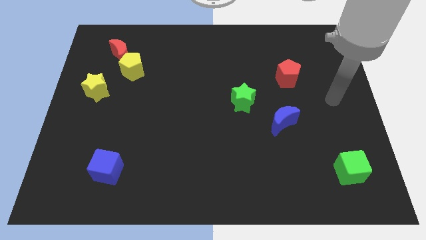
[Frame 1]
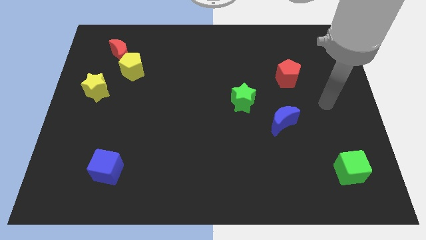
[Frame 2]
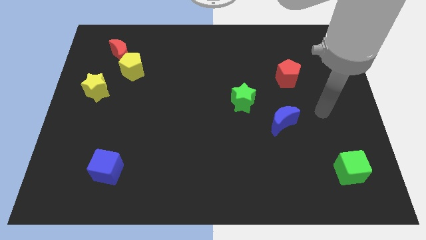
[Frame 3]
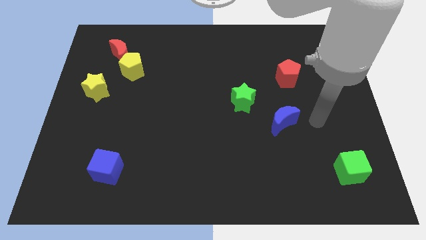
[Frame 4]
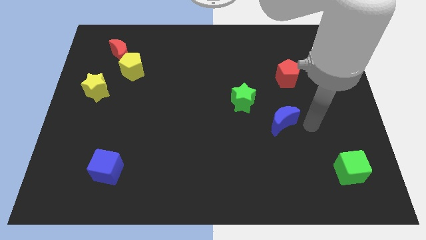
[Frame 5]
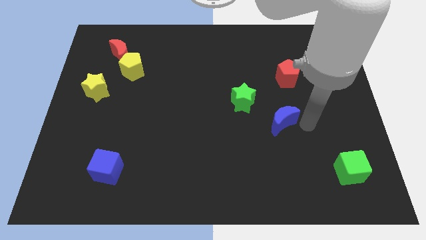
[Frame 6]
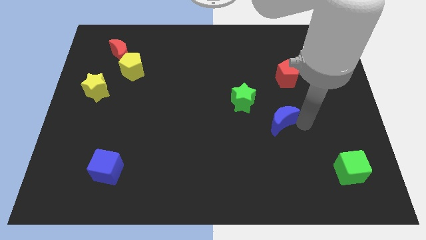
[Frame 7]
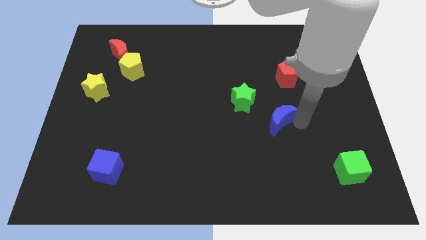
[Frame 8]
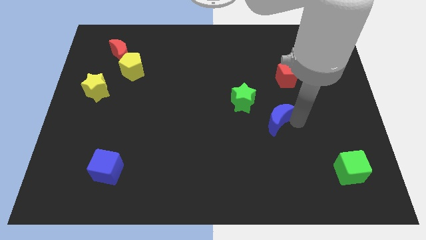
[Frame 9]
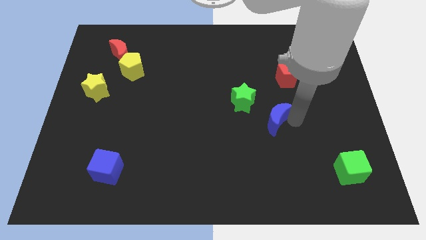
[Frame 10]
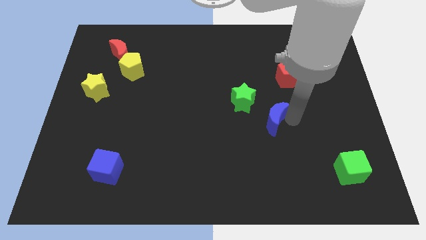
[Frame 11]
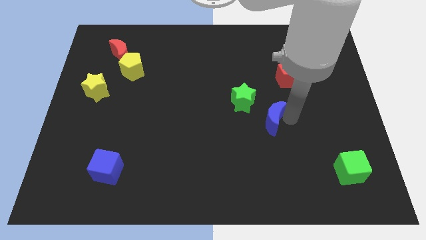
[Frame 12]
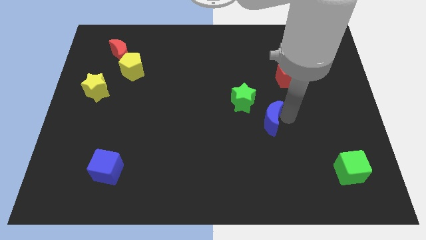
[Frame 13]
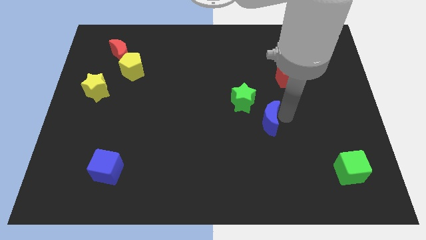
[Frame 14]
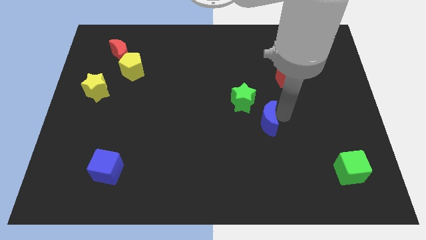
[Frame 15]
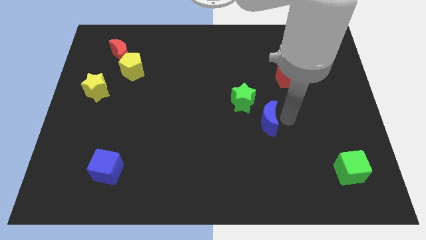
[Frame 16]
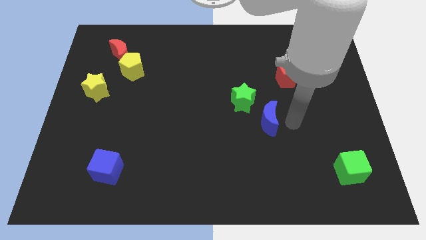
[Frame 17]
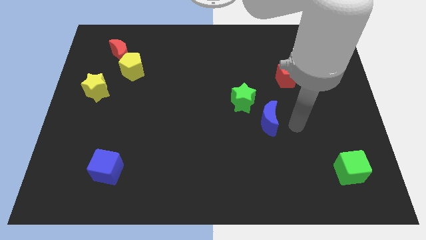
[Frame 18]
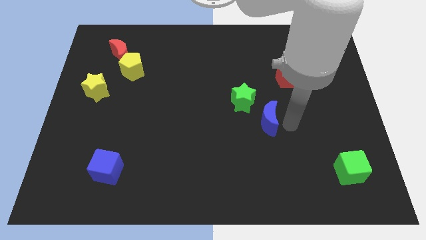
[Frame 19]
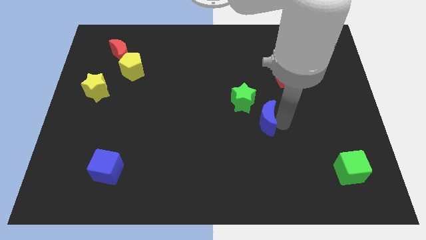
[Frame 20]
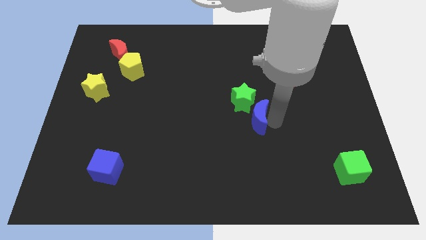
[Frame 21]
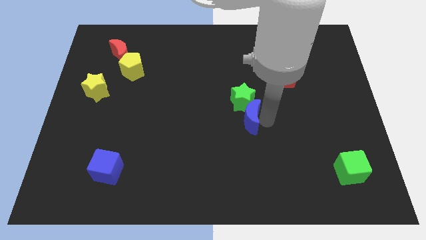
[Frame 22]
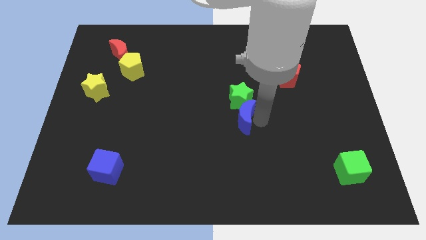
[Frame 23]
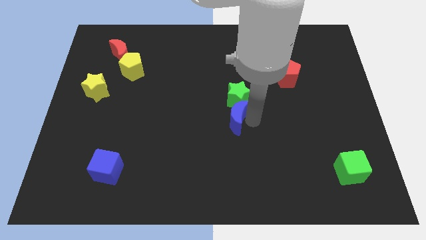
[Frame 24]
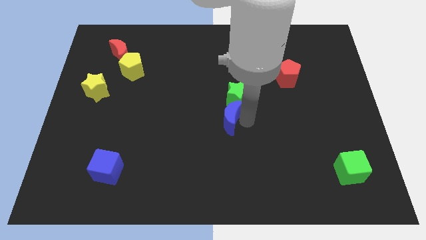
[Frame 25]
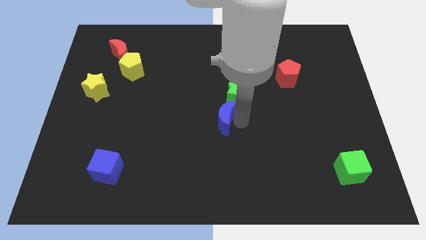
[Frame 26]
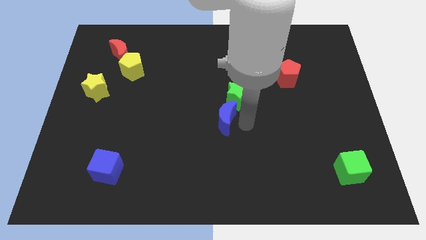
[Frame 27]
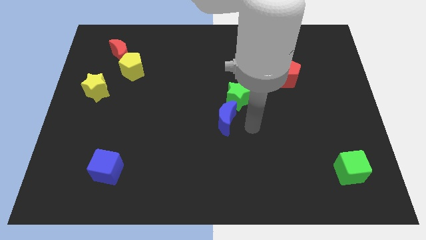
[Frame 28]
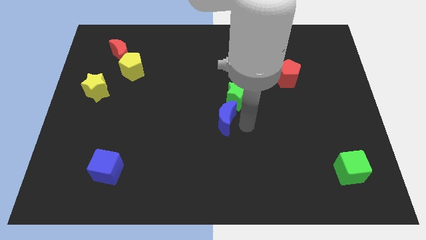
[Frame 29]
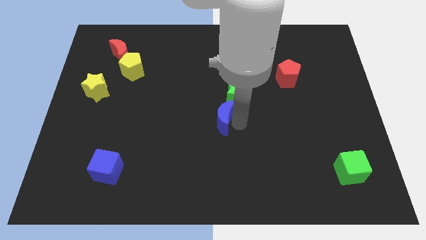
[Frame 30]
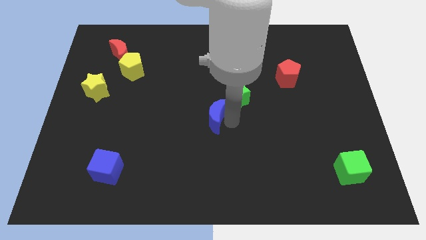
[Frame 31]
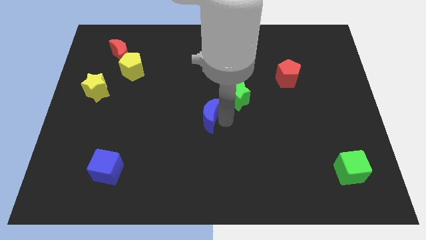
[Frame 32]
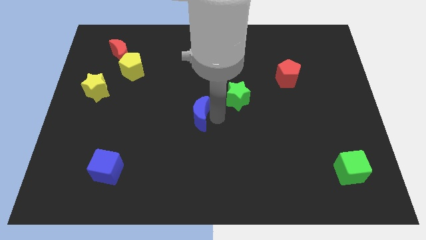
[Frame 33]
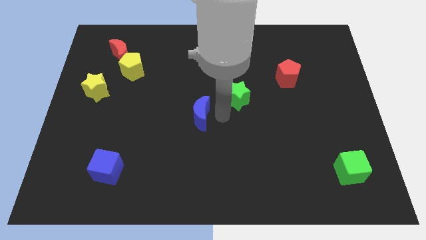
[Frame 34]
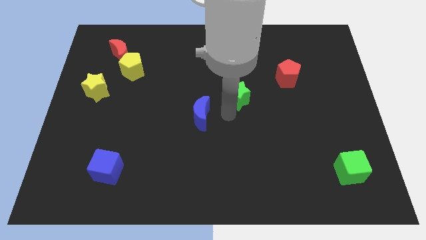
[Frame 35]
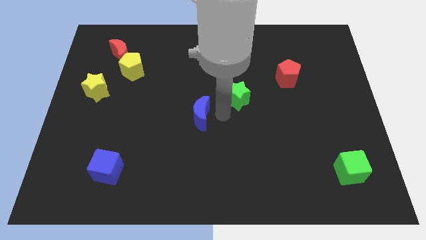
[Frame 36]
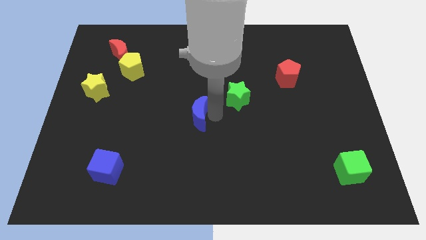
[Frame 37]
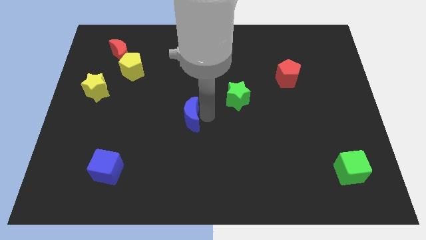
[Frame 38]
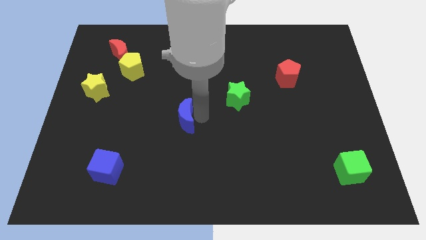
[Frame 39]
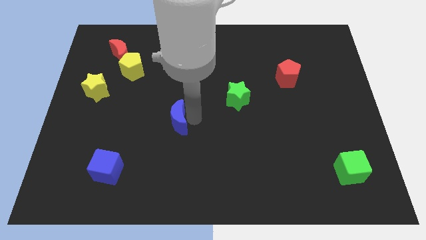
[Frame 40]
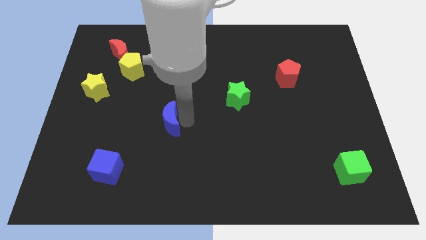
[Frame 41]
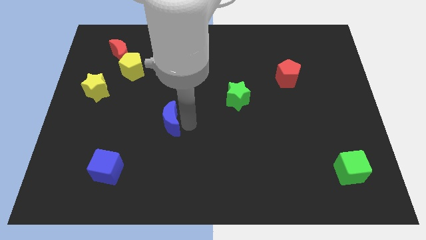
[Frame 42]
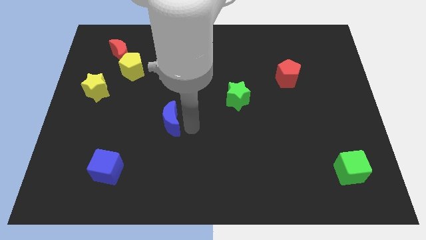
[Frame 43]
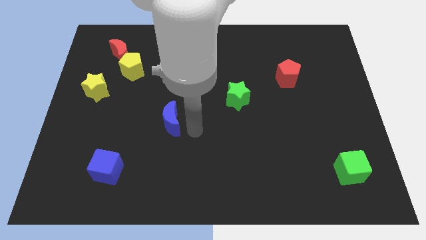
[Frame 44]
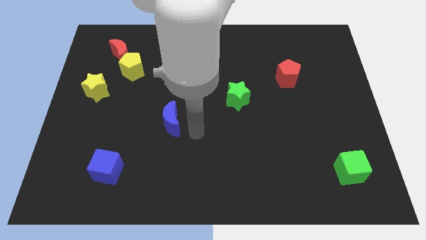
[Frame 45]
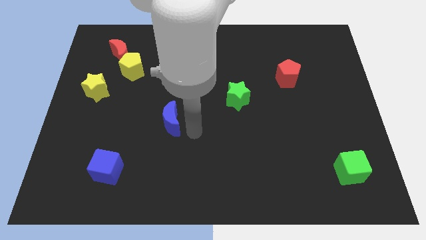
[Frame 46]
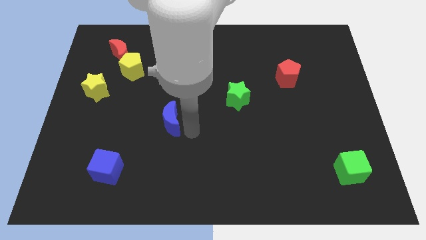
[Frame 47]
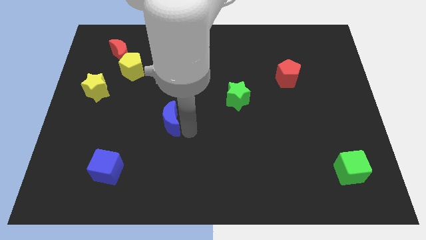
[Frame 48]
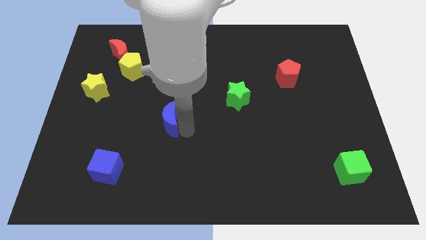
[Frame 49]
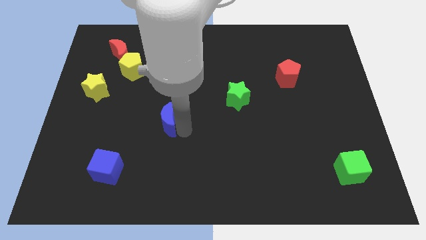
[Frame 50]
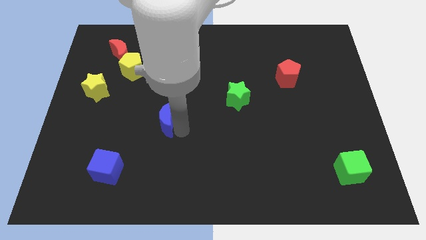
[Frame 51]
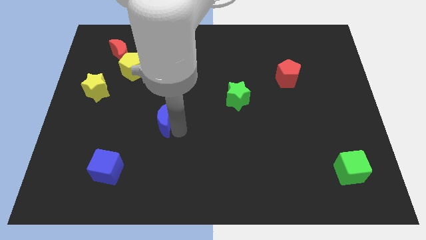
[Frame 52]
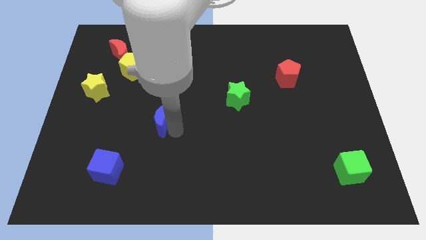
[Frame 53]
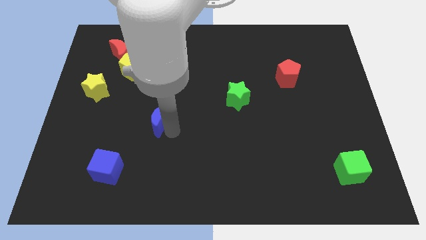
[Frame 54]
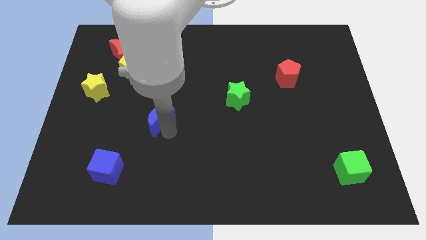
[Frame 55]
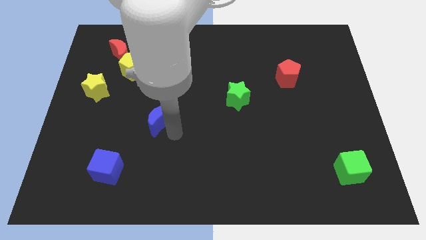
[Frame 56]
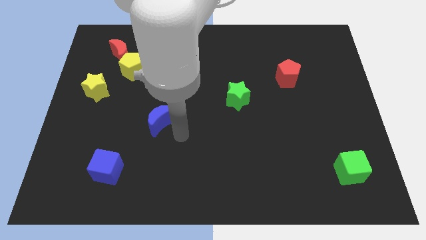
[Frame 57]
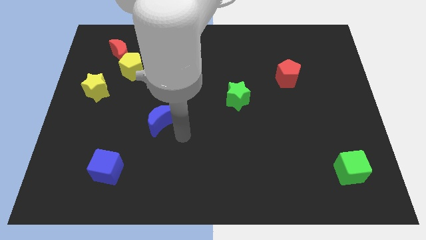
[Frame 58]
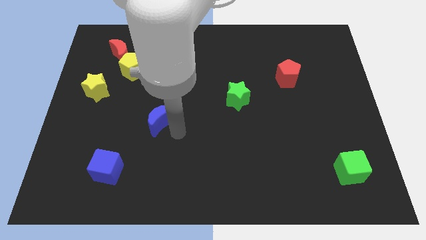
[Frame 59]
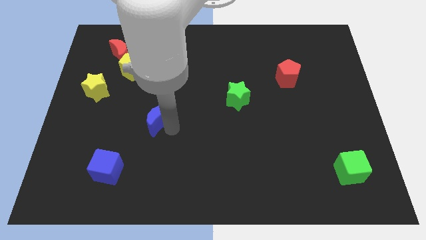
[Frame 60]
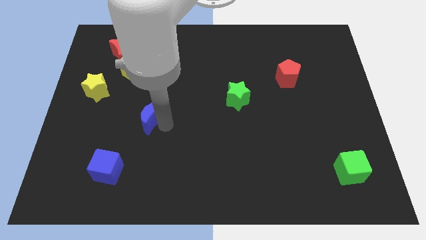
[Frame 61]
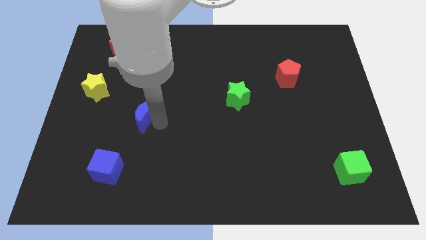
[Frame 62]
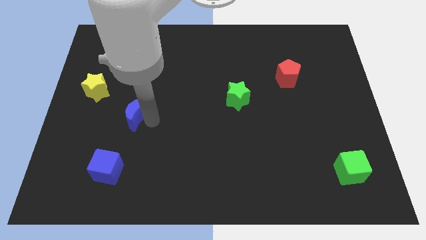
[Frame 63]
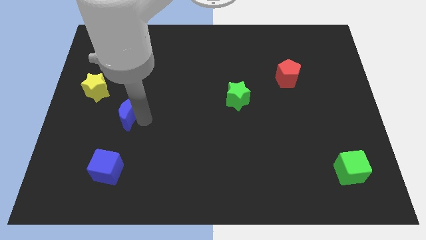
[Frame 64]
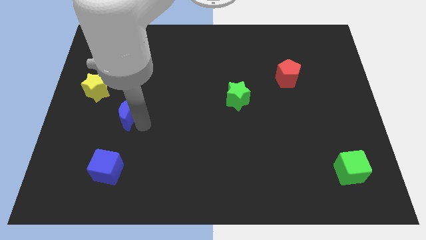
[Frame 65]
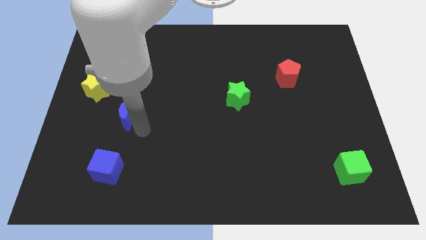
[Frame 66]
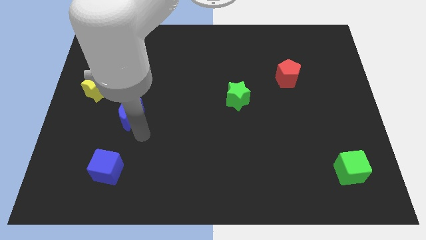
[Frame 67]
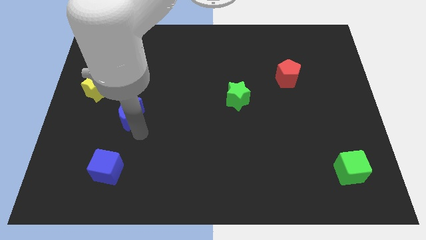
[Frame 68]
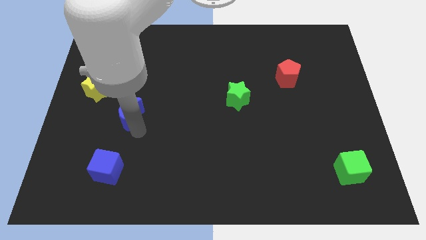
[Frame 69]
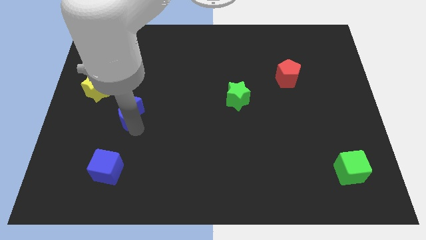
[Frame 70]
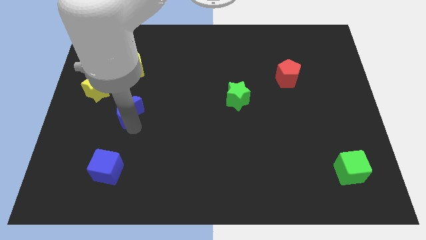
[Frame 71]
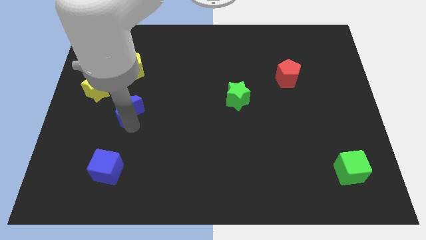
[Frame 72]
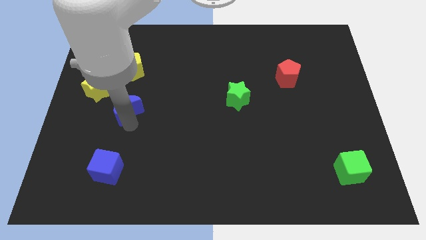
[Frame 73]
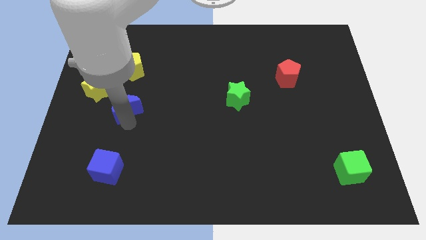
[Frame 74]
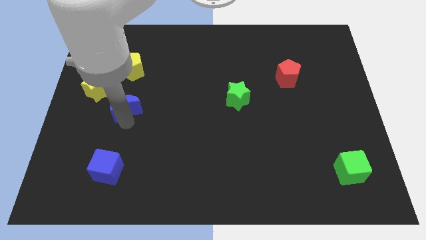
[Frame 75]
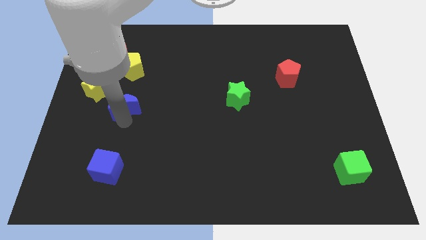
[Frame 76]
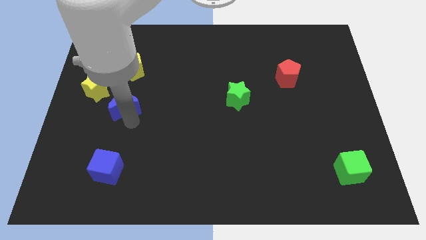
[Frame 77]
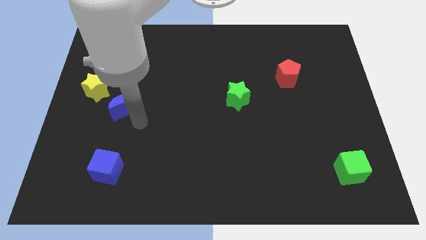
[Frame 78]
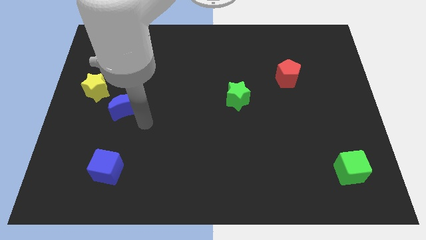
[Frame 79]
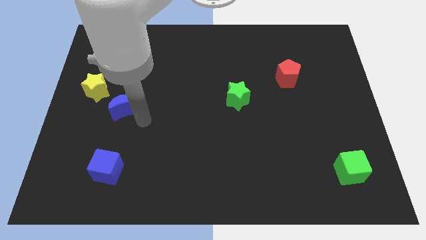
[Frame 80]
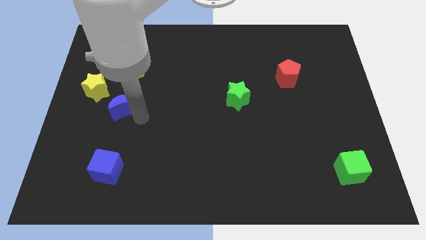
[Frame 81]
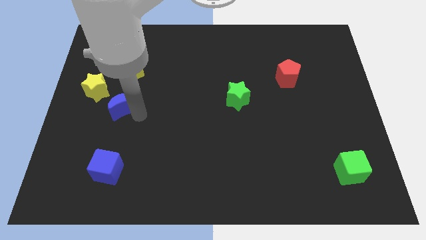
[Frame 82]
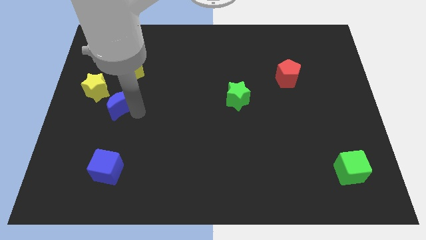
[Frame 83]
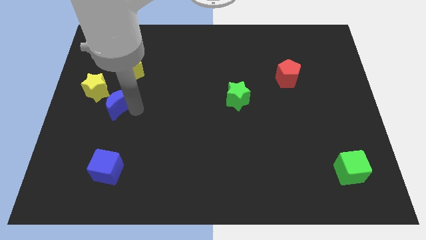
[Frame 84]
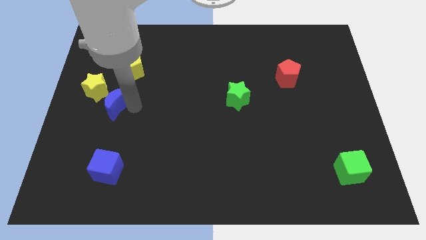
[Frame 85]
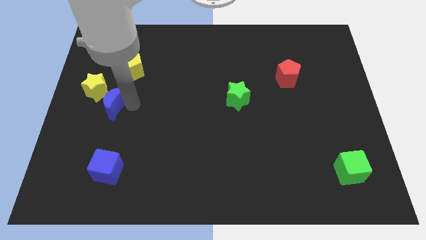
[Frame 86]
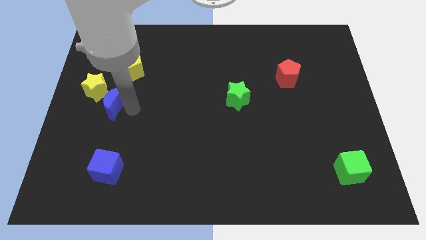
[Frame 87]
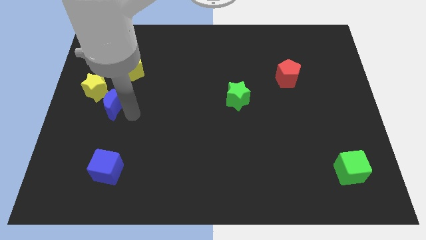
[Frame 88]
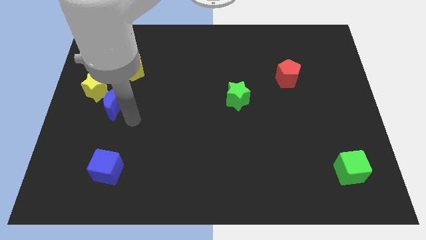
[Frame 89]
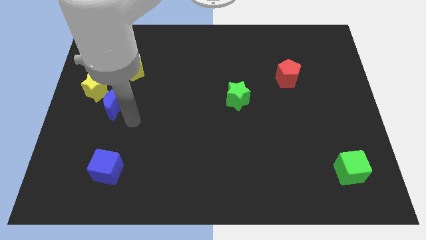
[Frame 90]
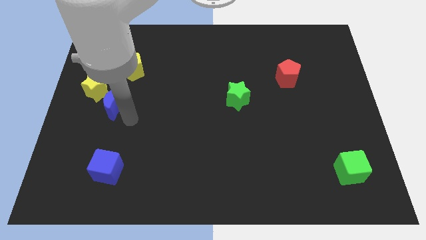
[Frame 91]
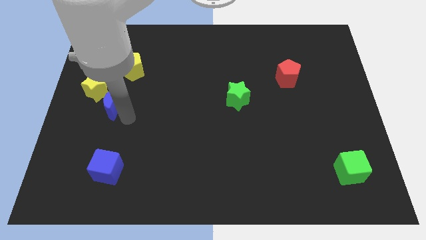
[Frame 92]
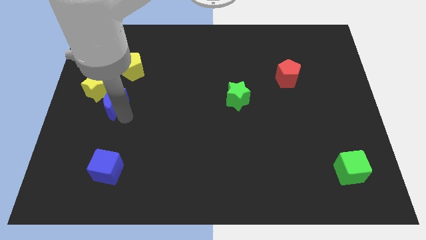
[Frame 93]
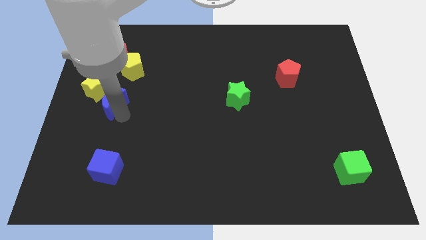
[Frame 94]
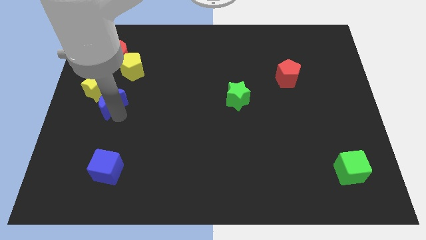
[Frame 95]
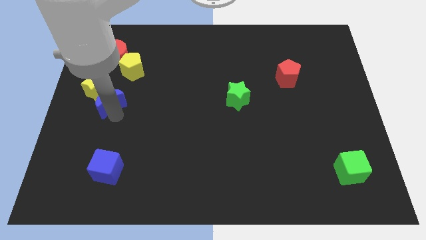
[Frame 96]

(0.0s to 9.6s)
move the blue moon towards the yellow star
